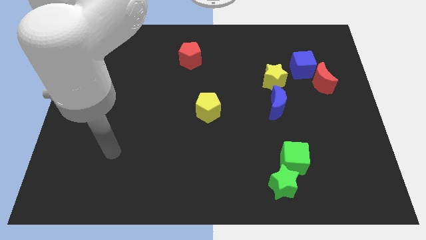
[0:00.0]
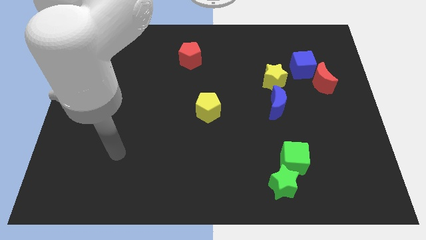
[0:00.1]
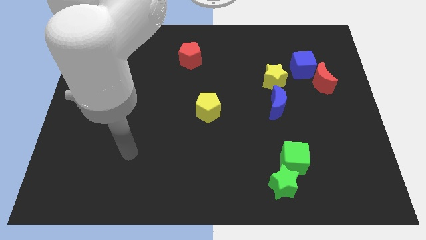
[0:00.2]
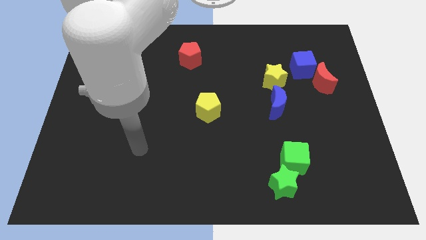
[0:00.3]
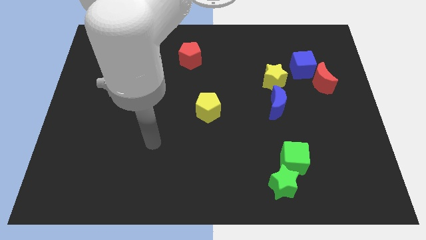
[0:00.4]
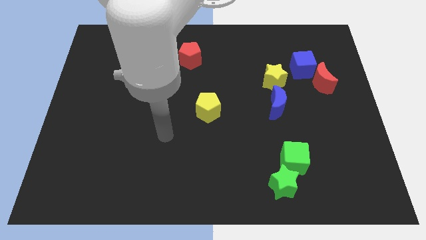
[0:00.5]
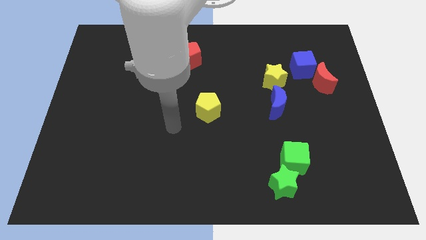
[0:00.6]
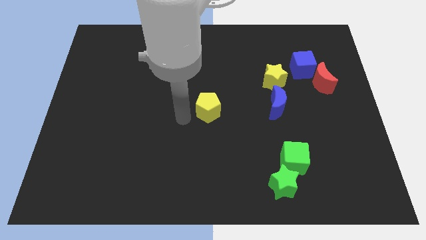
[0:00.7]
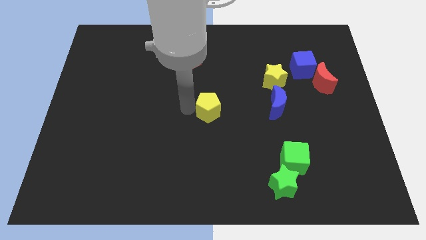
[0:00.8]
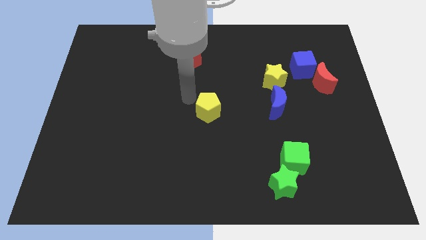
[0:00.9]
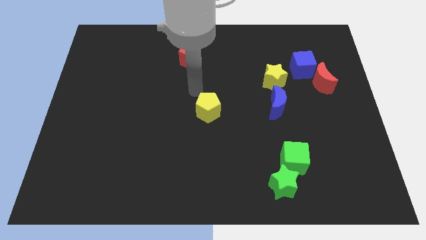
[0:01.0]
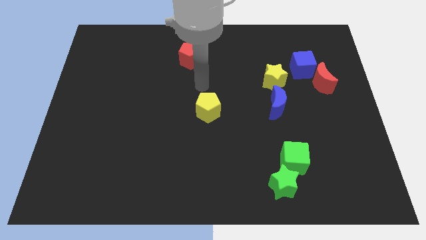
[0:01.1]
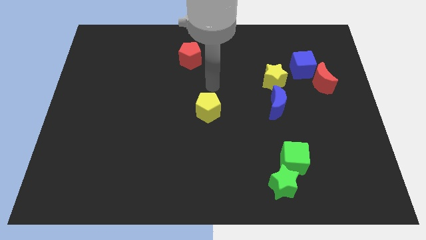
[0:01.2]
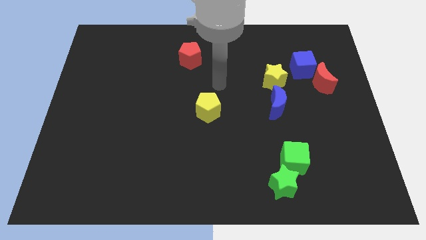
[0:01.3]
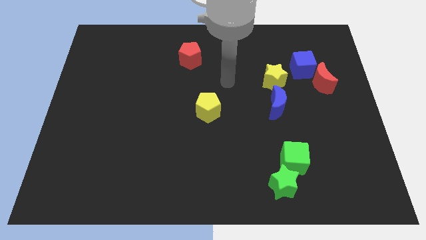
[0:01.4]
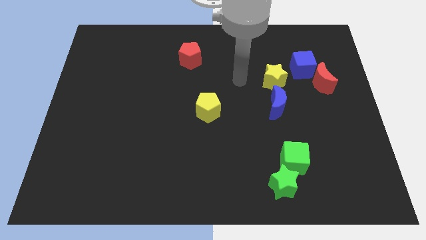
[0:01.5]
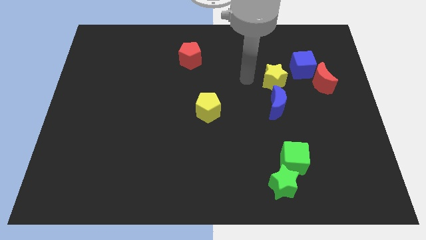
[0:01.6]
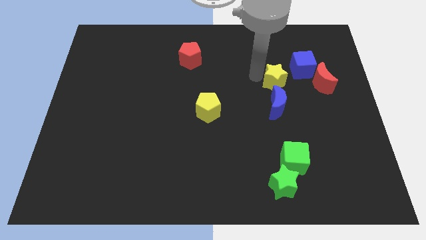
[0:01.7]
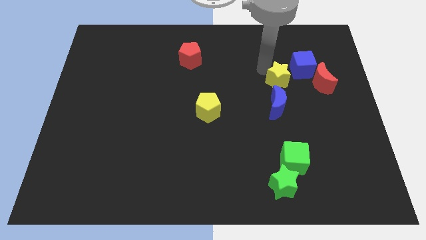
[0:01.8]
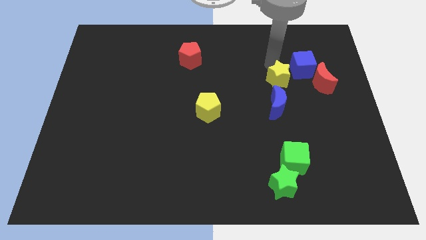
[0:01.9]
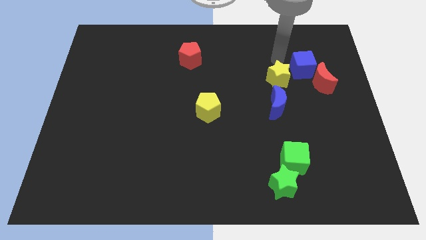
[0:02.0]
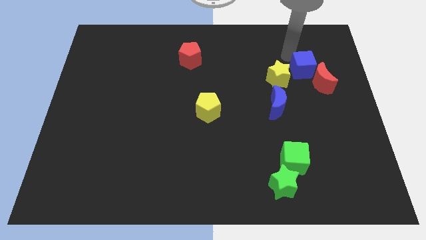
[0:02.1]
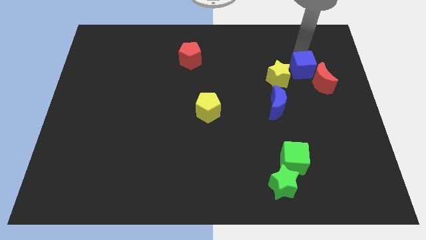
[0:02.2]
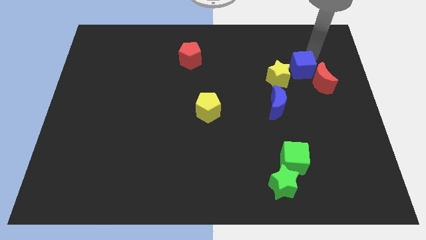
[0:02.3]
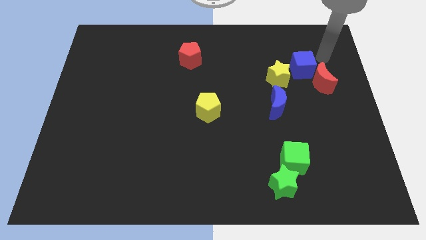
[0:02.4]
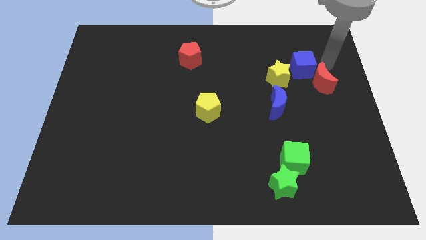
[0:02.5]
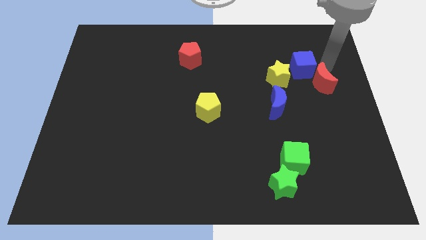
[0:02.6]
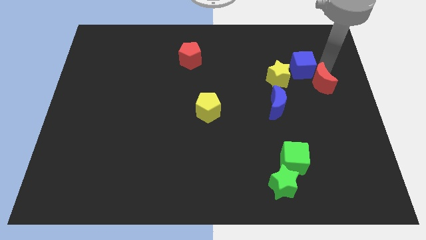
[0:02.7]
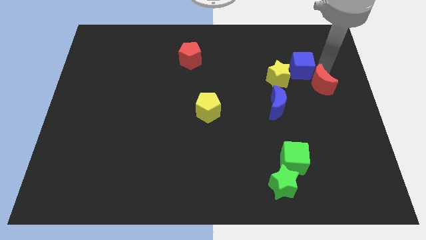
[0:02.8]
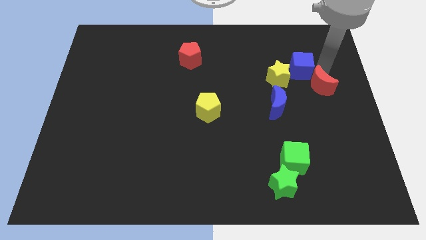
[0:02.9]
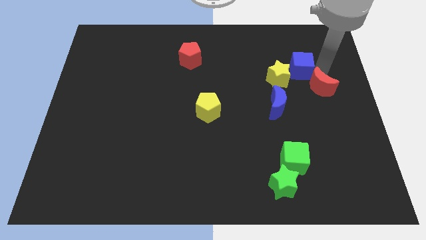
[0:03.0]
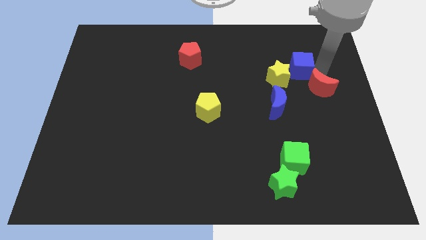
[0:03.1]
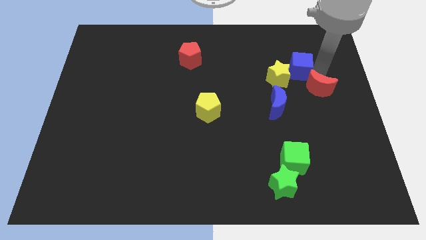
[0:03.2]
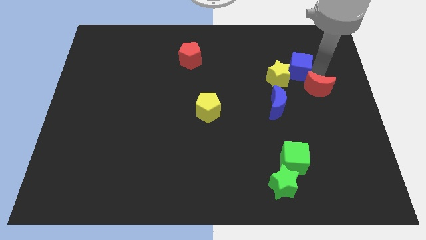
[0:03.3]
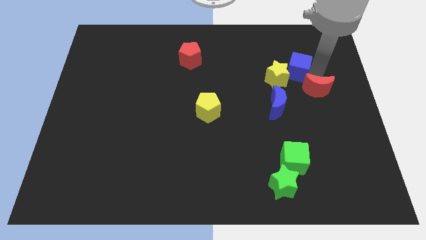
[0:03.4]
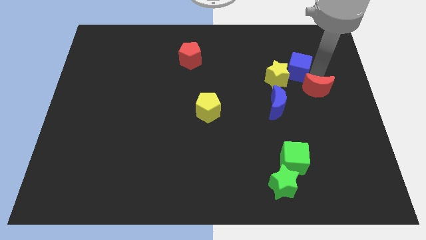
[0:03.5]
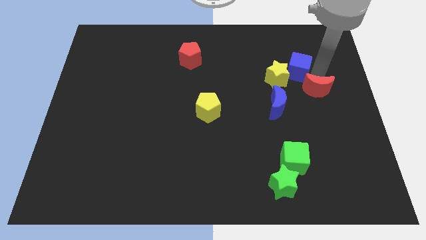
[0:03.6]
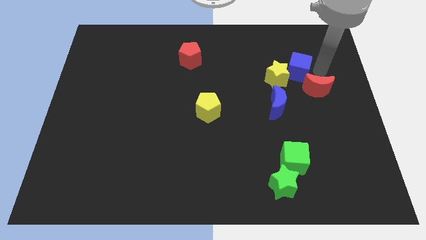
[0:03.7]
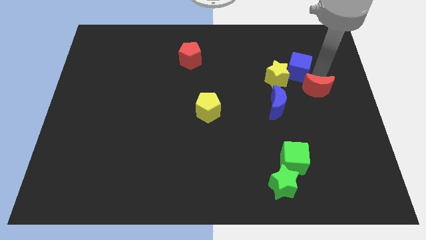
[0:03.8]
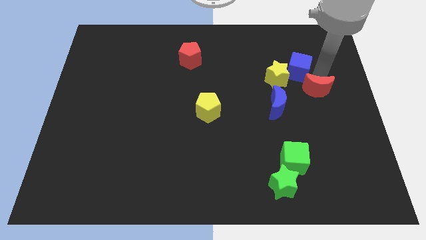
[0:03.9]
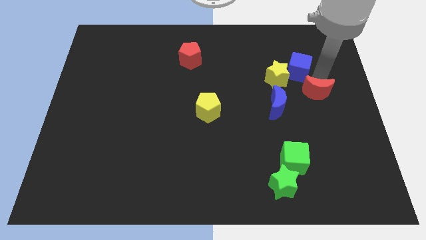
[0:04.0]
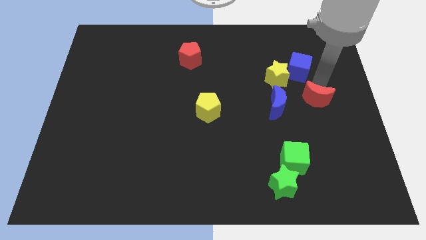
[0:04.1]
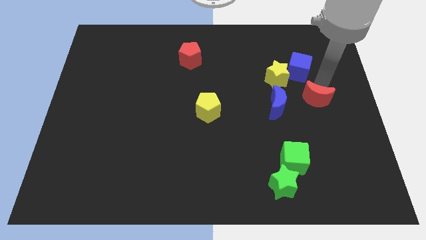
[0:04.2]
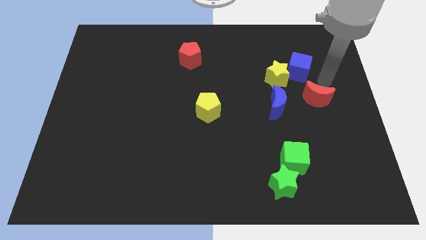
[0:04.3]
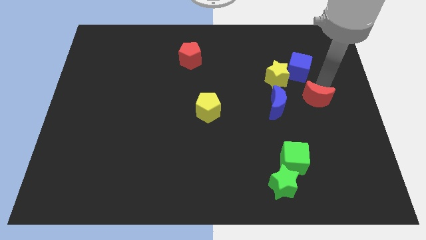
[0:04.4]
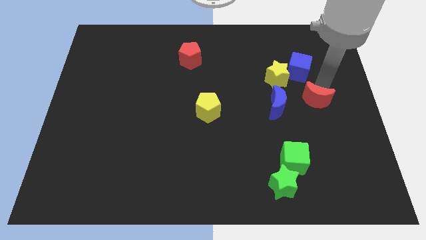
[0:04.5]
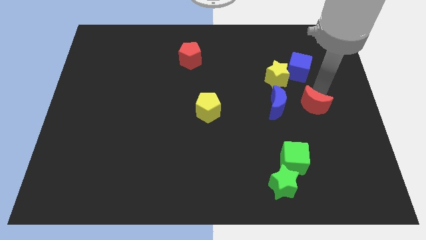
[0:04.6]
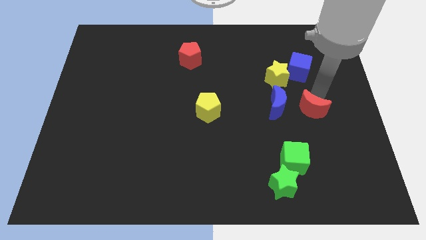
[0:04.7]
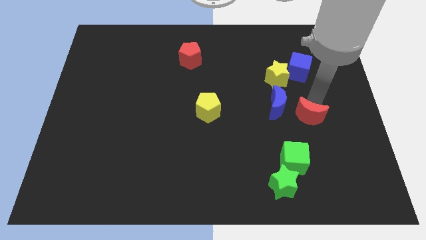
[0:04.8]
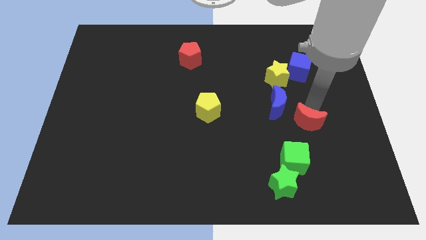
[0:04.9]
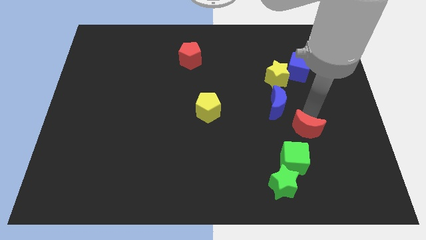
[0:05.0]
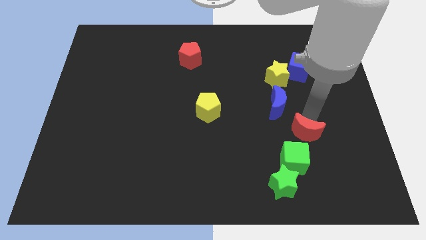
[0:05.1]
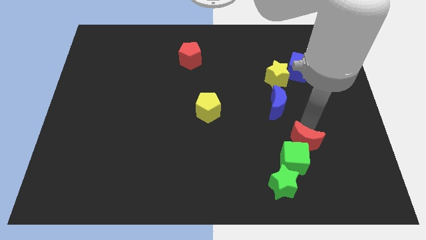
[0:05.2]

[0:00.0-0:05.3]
push the red moon close to the green cube

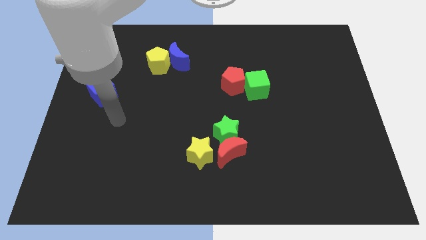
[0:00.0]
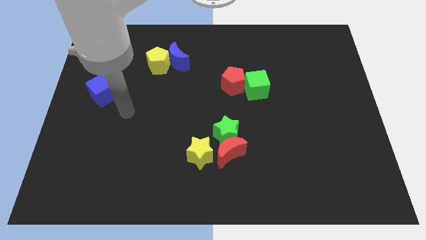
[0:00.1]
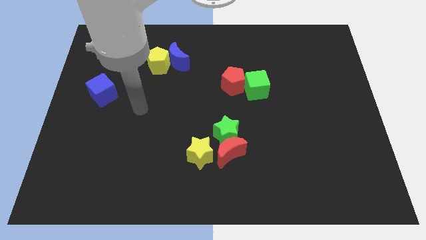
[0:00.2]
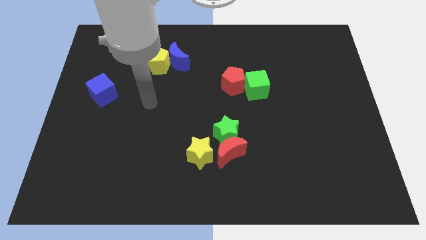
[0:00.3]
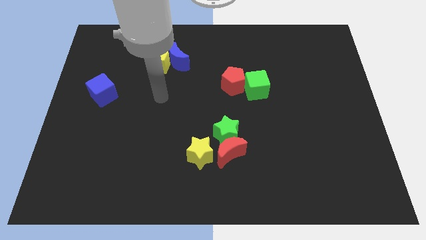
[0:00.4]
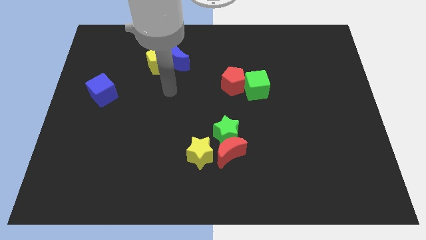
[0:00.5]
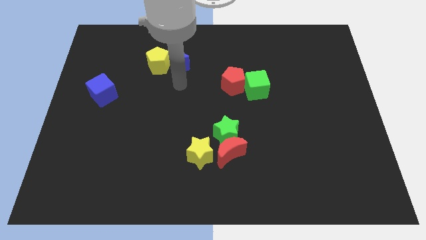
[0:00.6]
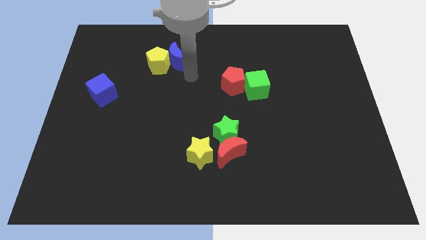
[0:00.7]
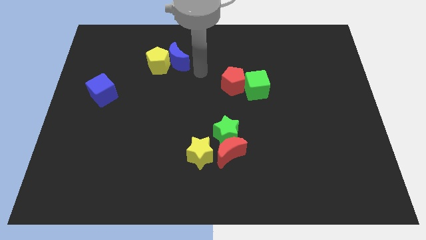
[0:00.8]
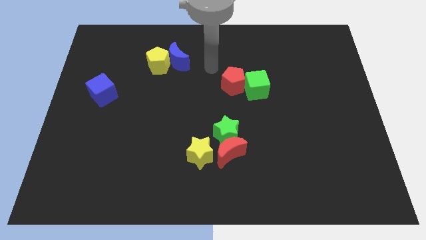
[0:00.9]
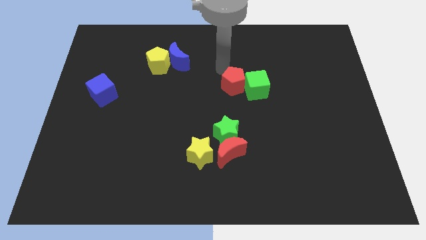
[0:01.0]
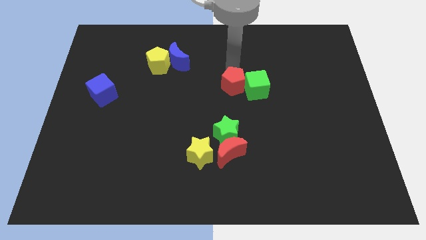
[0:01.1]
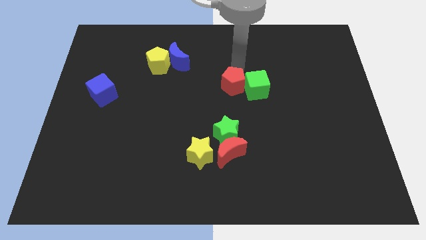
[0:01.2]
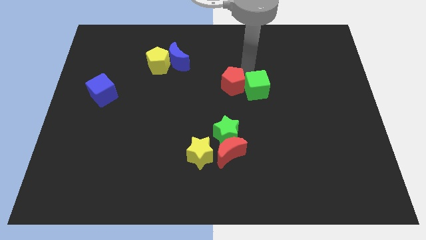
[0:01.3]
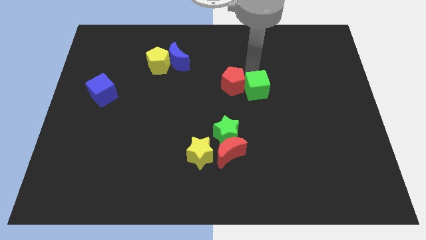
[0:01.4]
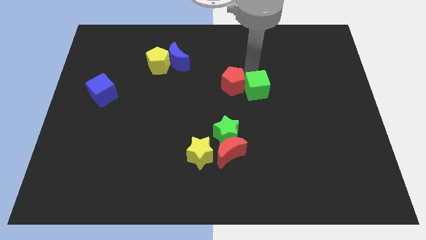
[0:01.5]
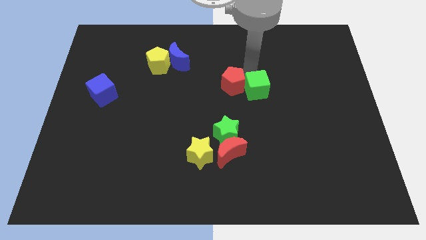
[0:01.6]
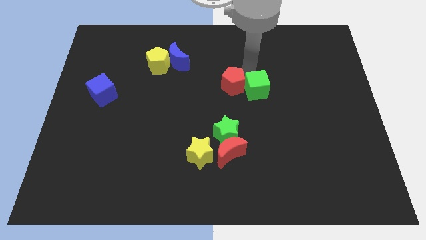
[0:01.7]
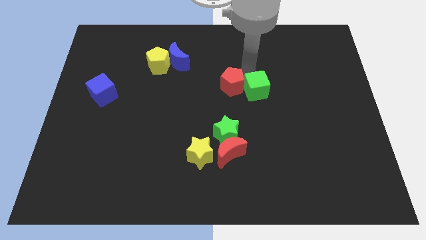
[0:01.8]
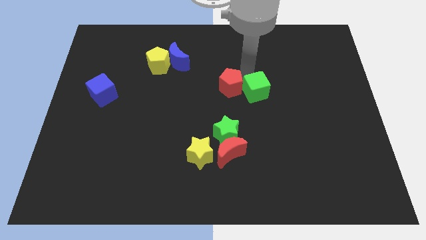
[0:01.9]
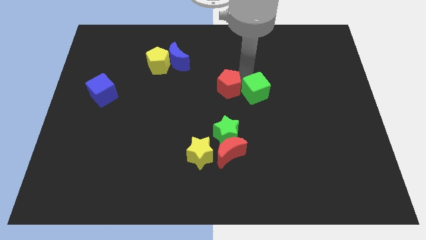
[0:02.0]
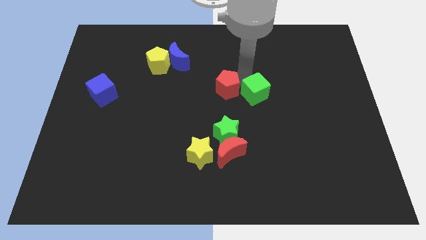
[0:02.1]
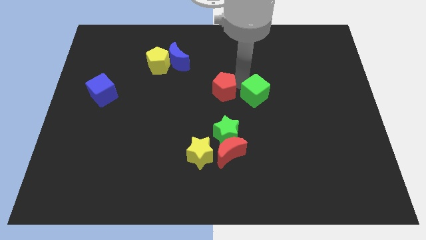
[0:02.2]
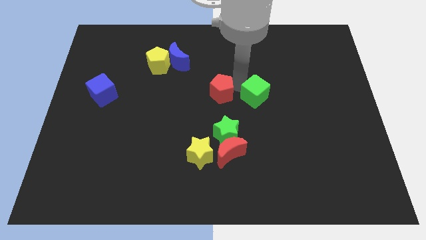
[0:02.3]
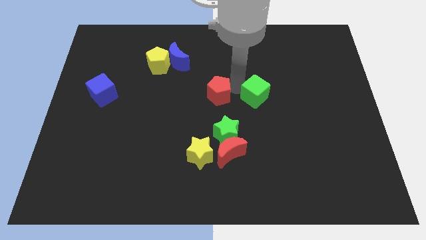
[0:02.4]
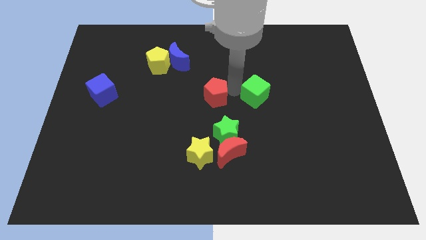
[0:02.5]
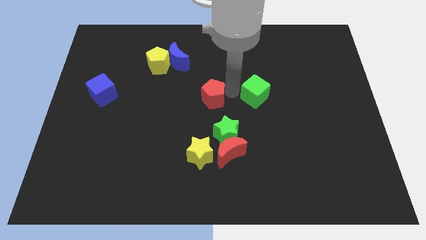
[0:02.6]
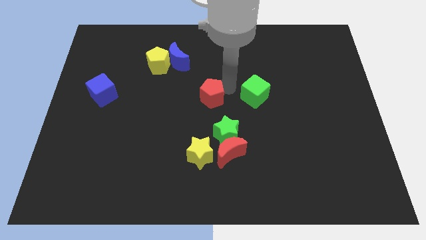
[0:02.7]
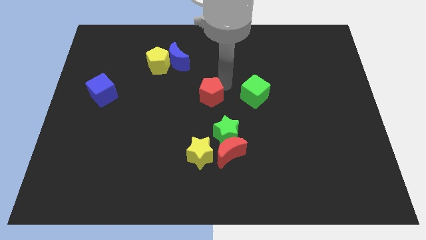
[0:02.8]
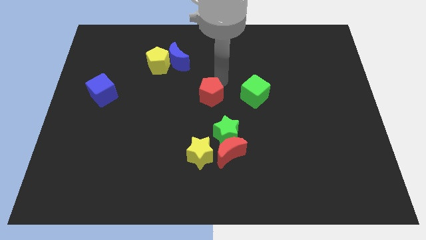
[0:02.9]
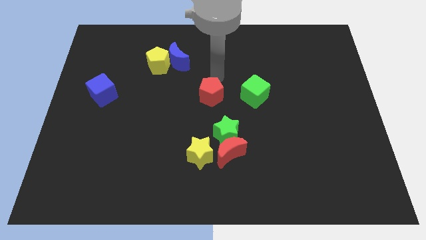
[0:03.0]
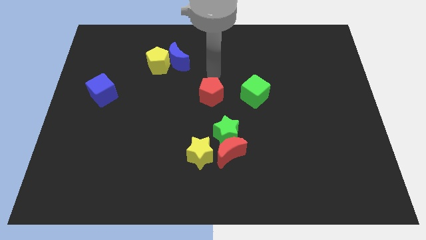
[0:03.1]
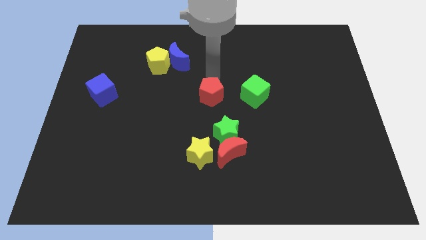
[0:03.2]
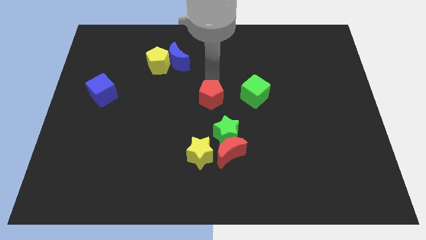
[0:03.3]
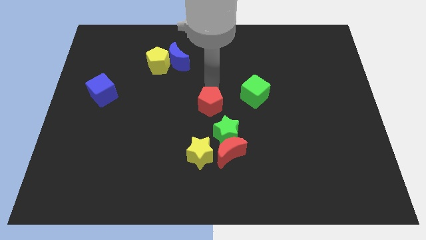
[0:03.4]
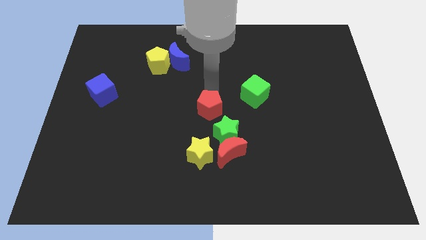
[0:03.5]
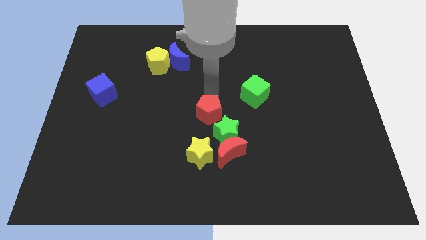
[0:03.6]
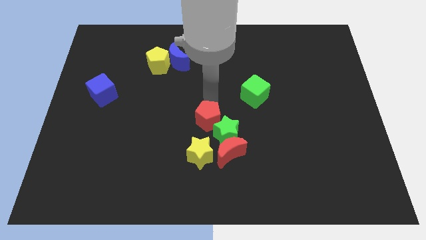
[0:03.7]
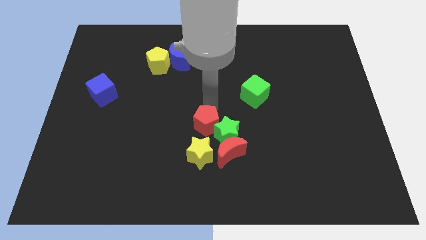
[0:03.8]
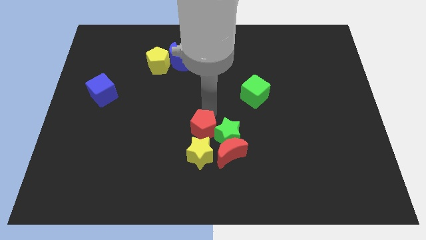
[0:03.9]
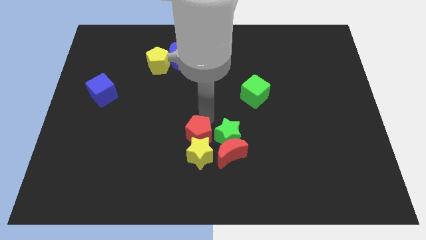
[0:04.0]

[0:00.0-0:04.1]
move the red pentagon towards the yellow star
